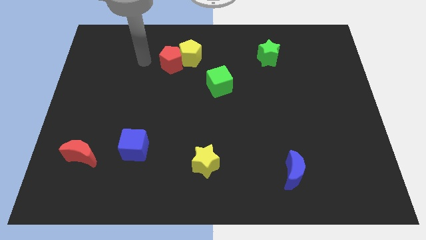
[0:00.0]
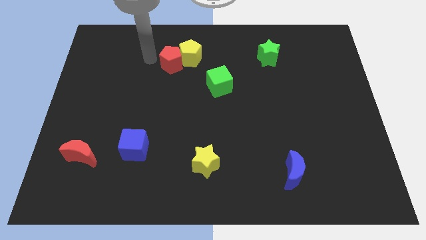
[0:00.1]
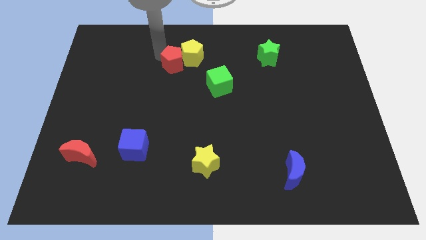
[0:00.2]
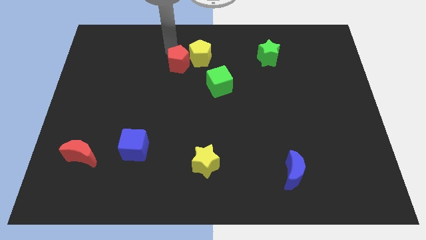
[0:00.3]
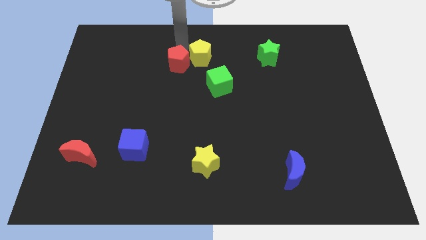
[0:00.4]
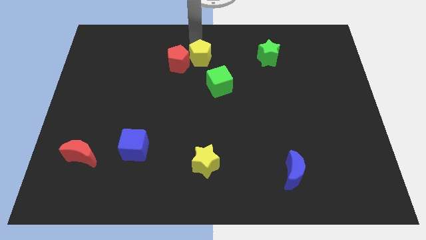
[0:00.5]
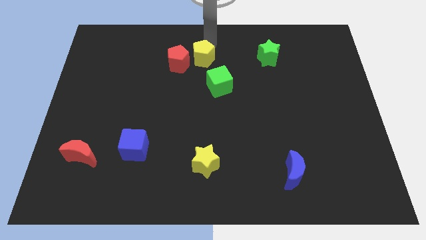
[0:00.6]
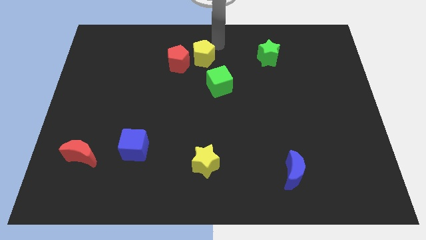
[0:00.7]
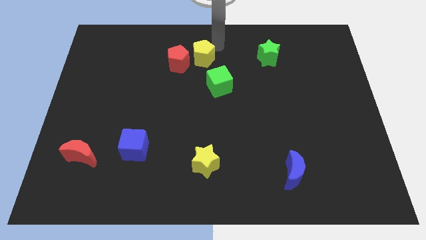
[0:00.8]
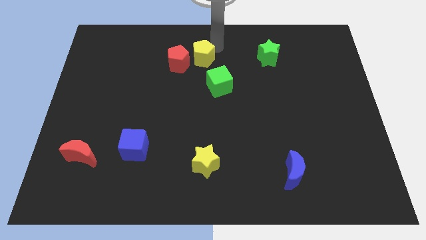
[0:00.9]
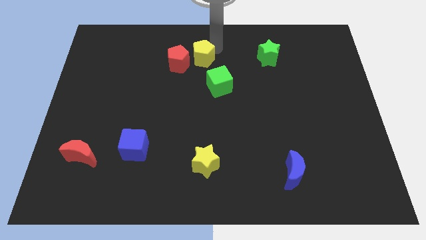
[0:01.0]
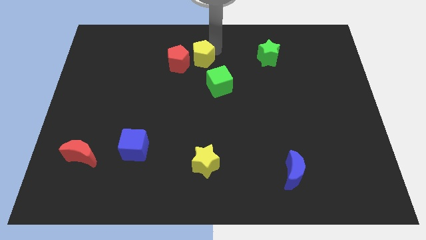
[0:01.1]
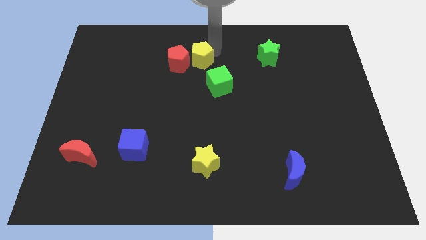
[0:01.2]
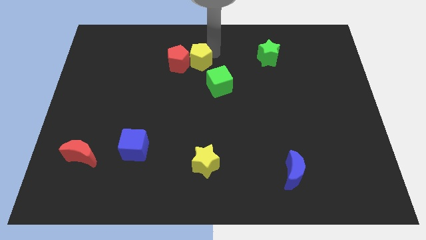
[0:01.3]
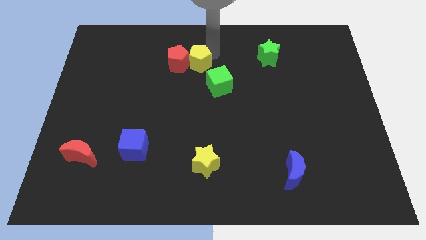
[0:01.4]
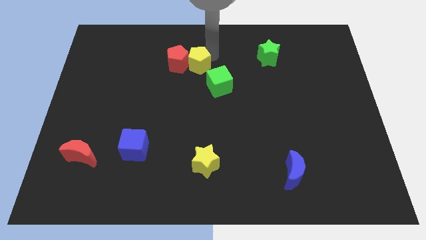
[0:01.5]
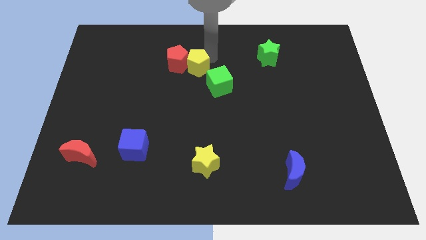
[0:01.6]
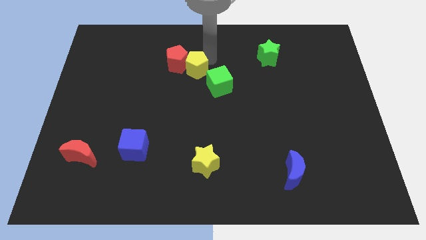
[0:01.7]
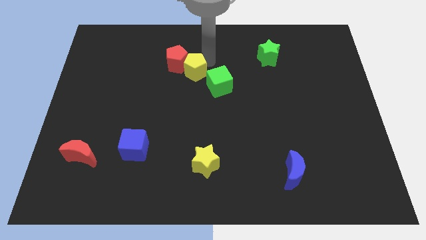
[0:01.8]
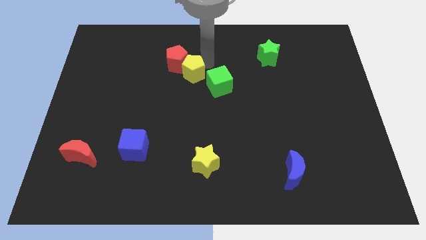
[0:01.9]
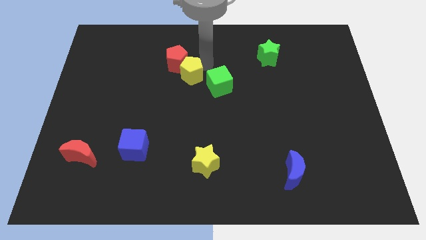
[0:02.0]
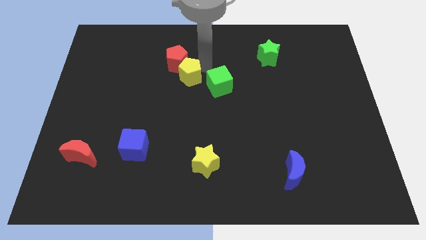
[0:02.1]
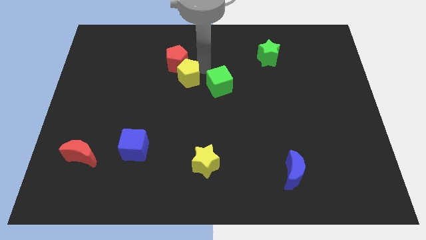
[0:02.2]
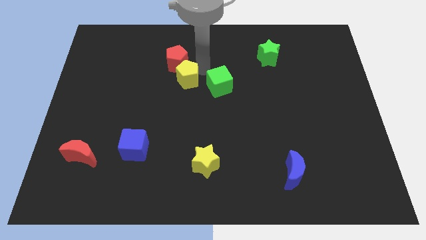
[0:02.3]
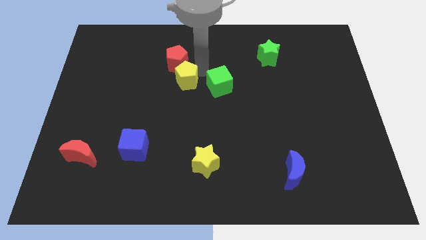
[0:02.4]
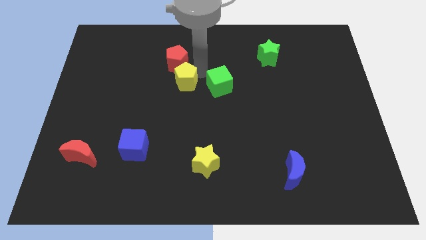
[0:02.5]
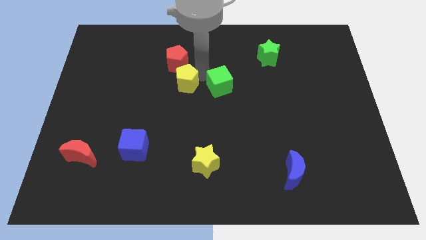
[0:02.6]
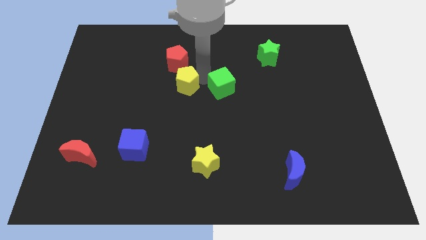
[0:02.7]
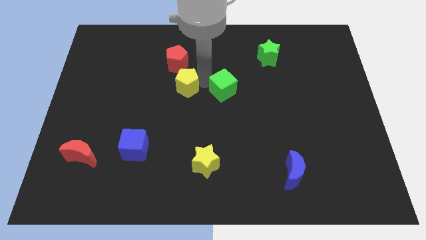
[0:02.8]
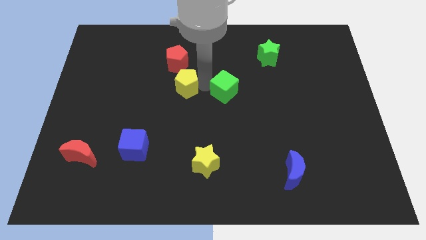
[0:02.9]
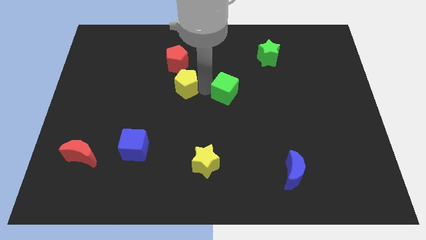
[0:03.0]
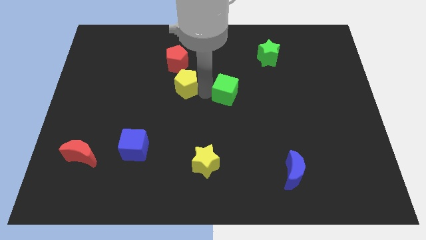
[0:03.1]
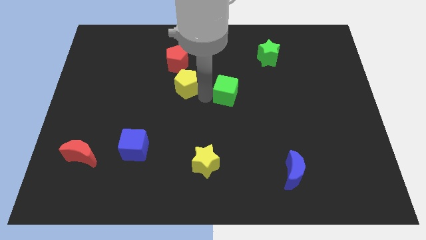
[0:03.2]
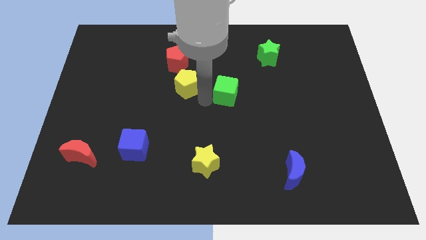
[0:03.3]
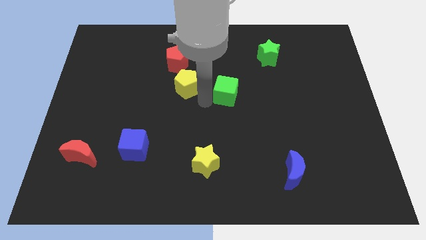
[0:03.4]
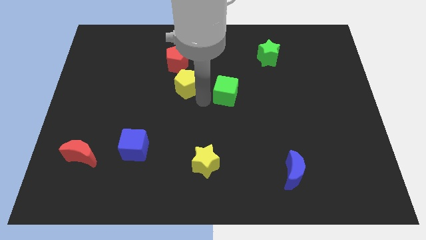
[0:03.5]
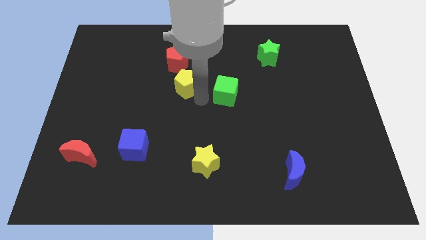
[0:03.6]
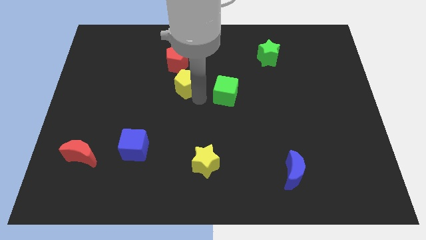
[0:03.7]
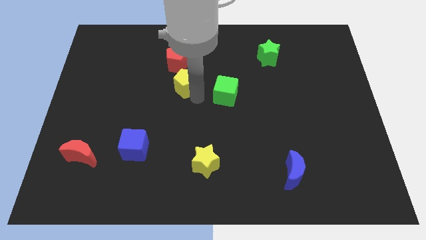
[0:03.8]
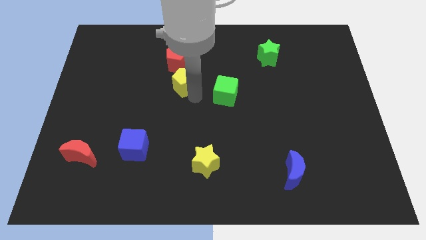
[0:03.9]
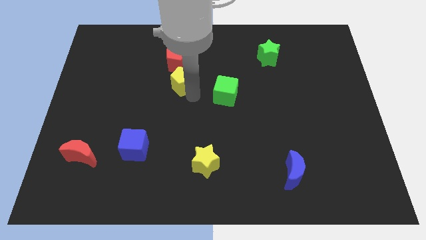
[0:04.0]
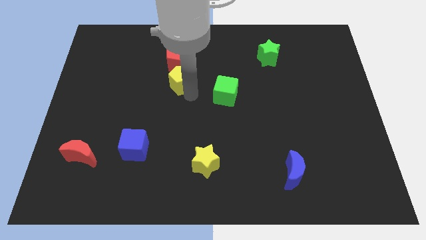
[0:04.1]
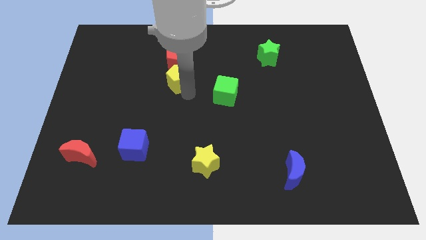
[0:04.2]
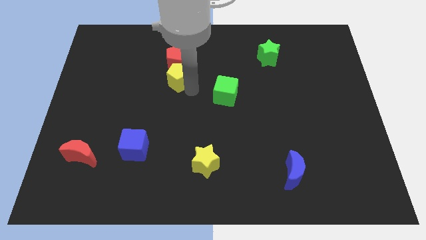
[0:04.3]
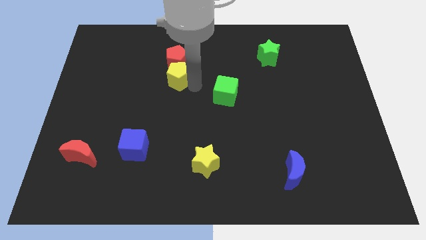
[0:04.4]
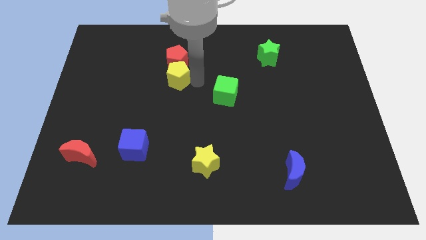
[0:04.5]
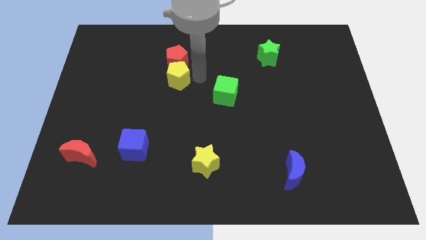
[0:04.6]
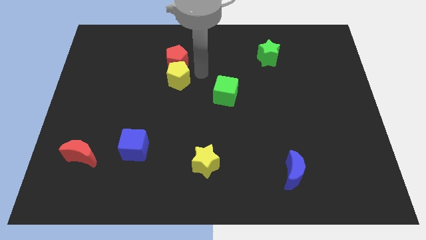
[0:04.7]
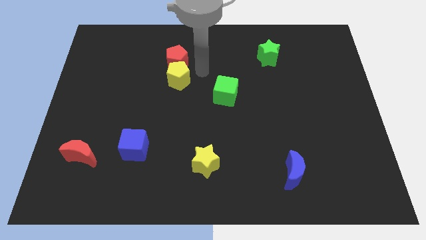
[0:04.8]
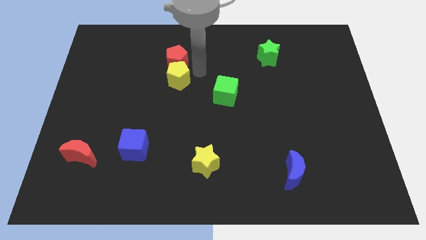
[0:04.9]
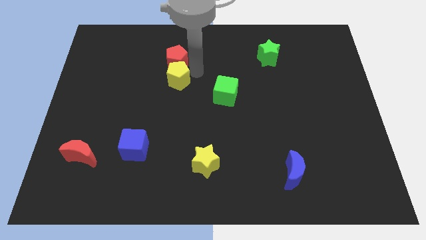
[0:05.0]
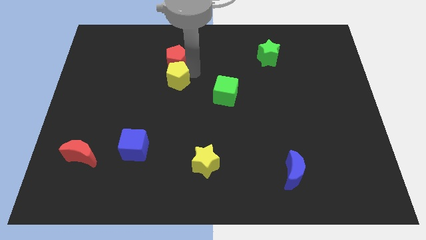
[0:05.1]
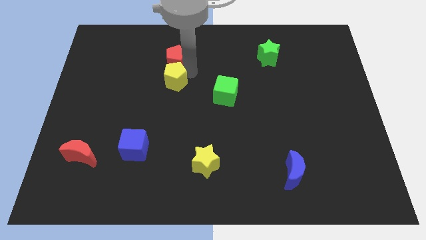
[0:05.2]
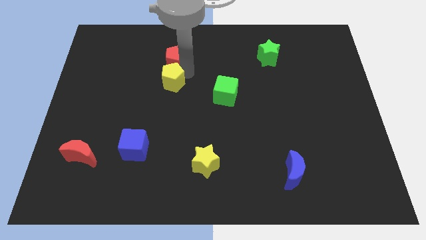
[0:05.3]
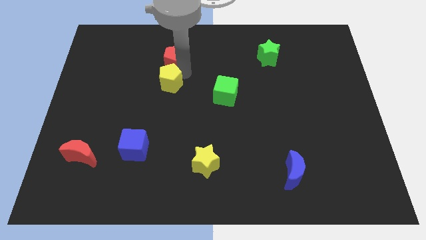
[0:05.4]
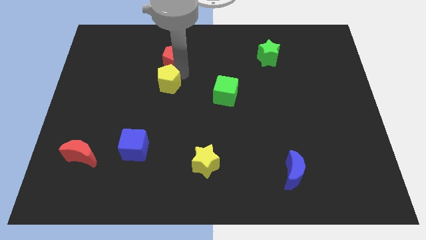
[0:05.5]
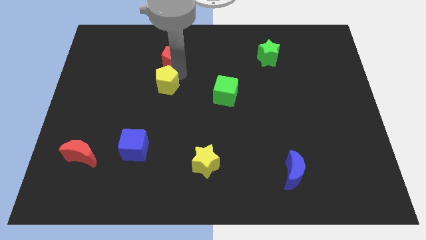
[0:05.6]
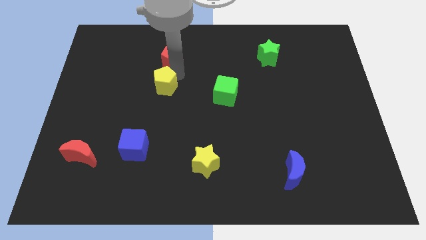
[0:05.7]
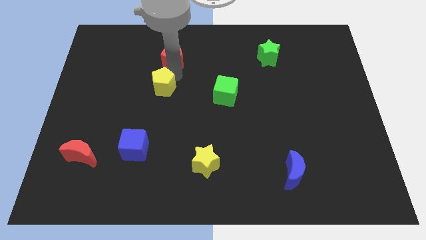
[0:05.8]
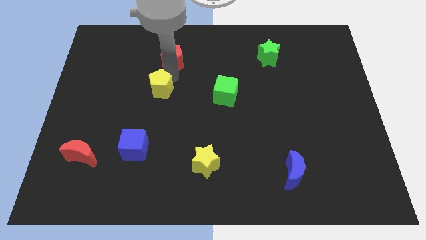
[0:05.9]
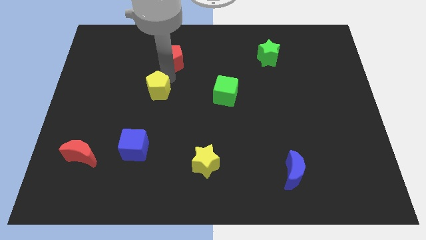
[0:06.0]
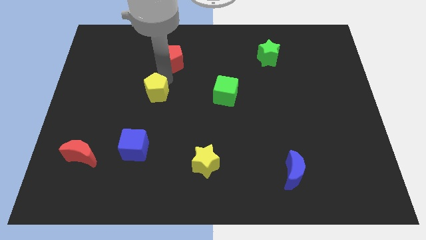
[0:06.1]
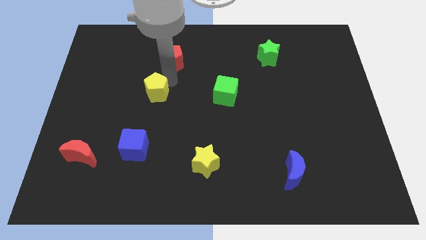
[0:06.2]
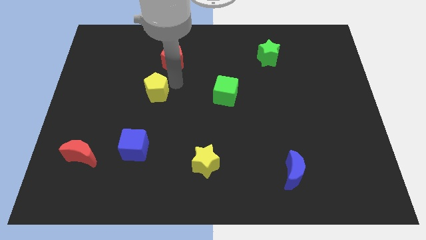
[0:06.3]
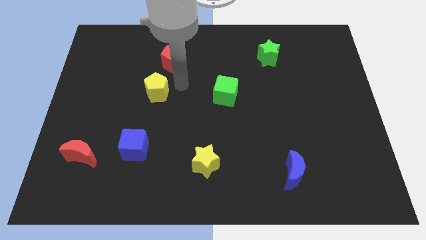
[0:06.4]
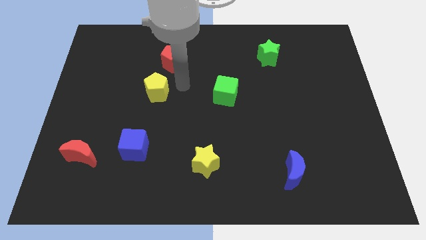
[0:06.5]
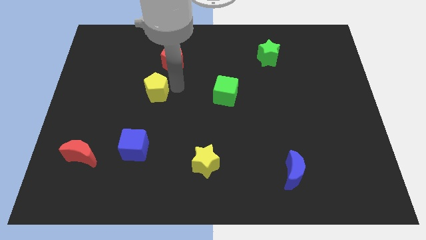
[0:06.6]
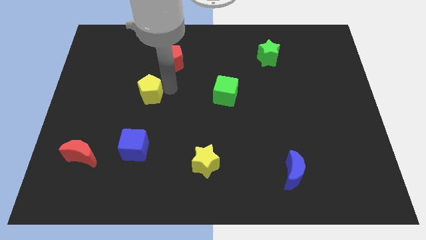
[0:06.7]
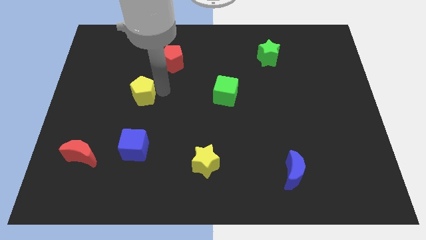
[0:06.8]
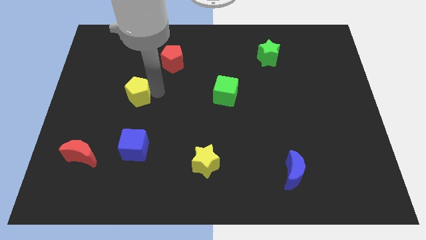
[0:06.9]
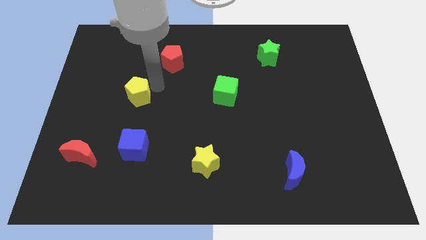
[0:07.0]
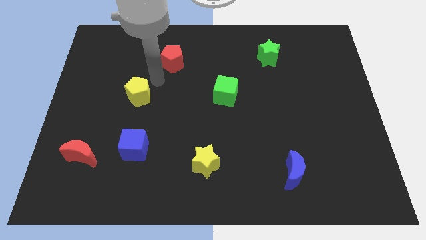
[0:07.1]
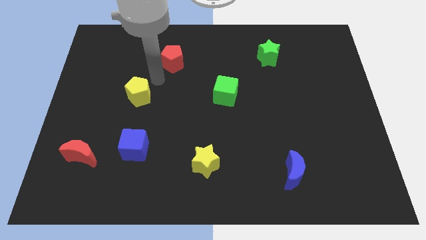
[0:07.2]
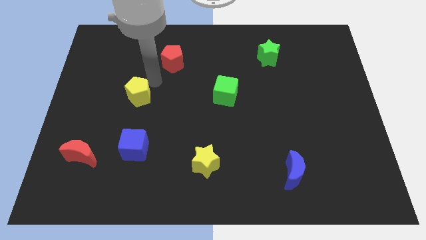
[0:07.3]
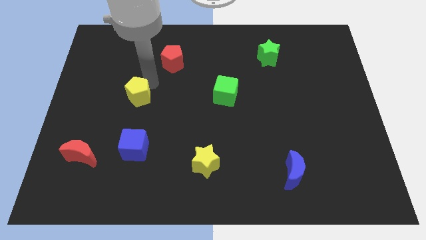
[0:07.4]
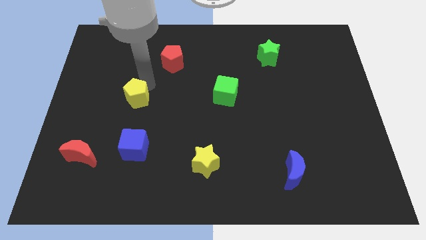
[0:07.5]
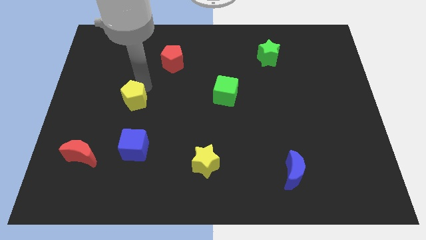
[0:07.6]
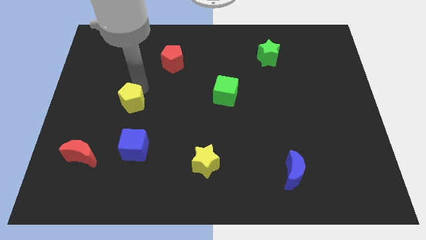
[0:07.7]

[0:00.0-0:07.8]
slide the yellow pentagon down and left diagonally
